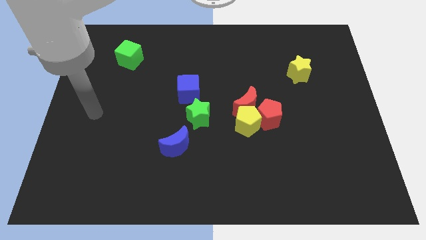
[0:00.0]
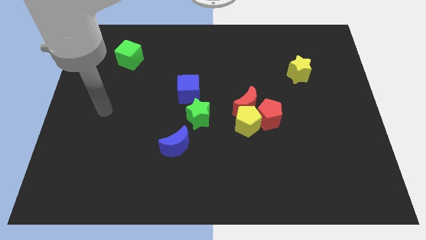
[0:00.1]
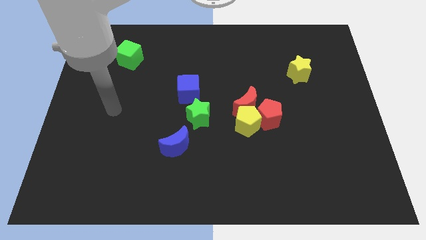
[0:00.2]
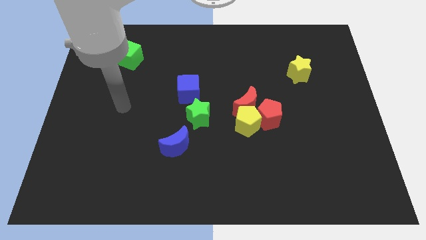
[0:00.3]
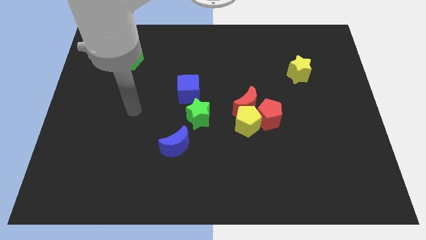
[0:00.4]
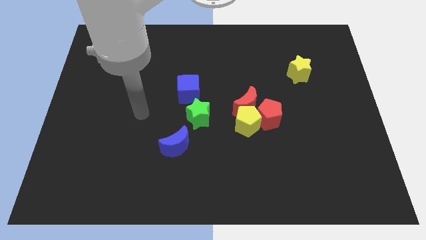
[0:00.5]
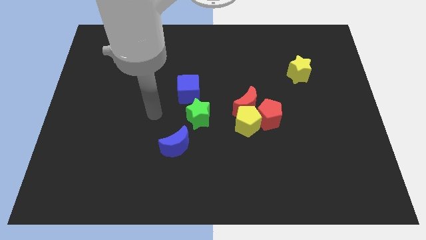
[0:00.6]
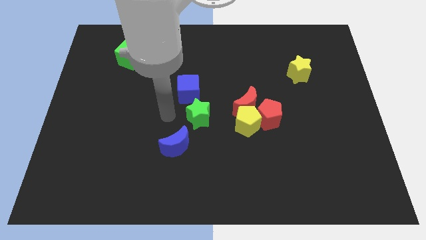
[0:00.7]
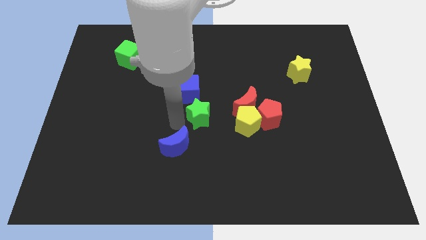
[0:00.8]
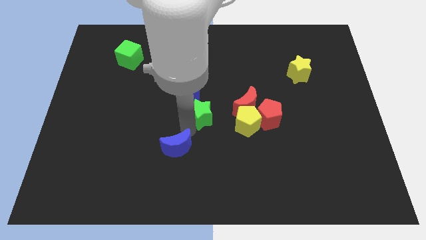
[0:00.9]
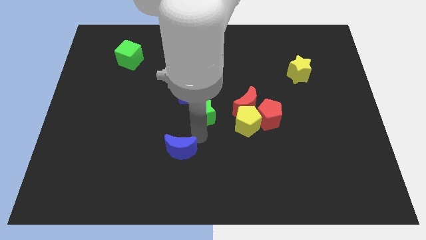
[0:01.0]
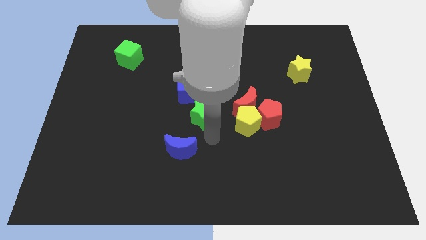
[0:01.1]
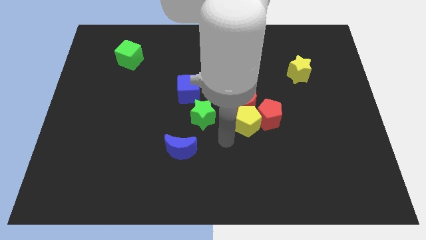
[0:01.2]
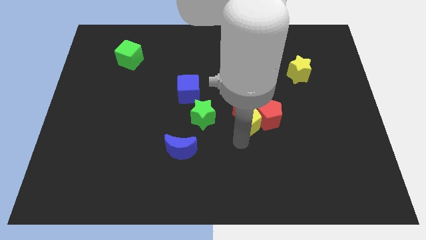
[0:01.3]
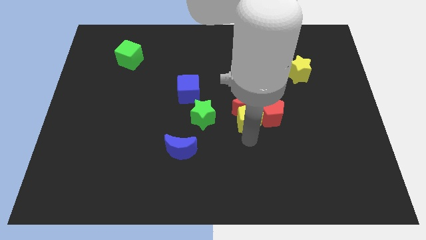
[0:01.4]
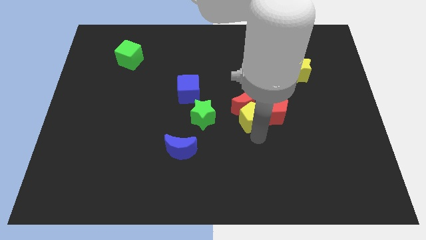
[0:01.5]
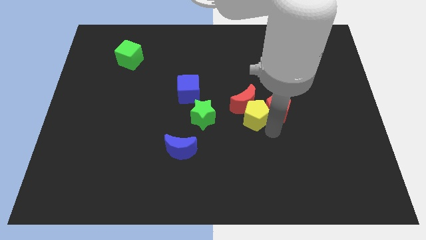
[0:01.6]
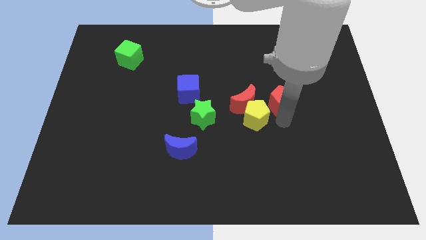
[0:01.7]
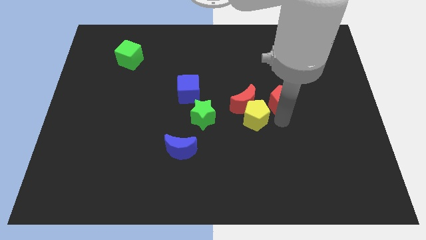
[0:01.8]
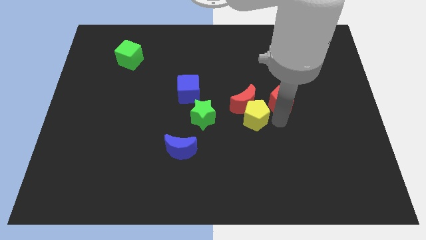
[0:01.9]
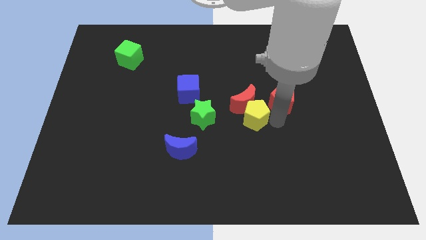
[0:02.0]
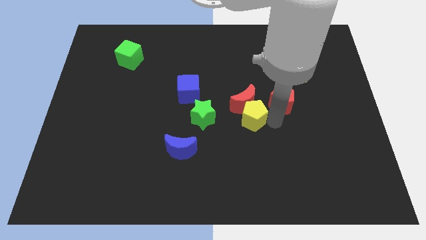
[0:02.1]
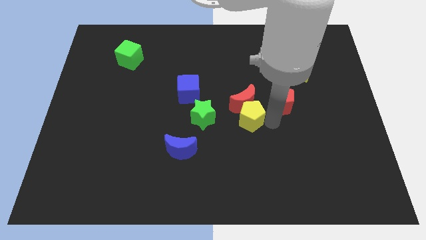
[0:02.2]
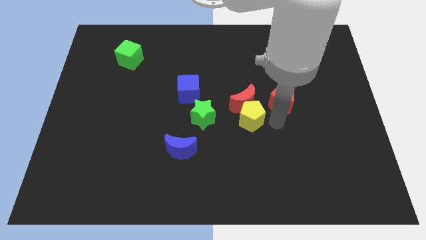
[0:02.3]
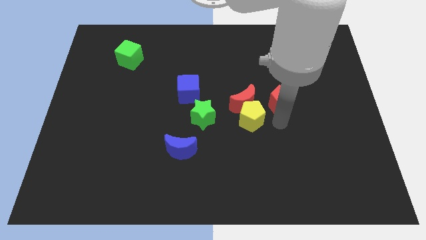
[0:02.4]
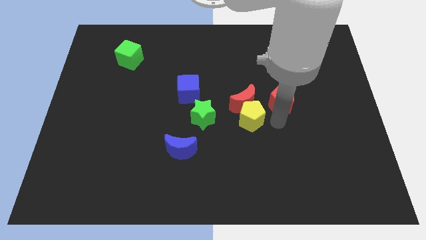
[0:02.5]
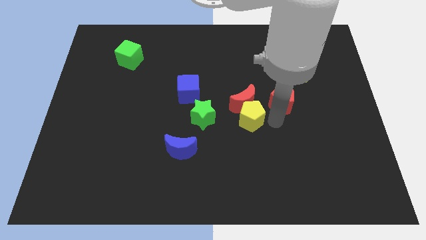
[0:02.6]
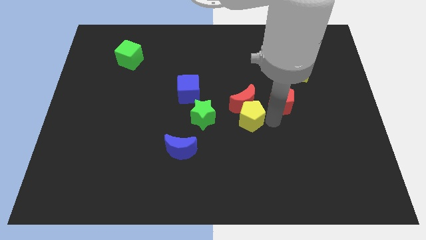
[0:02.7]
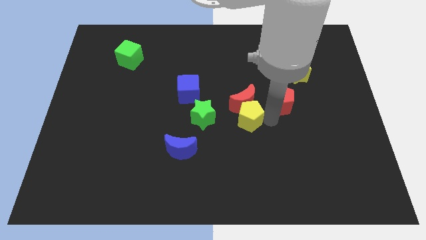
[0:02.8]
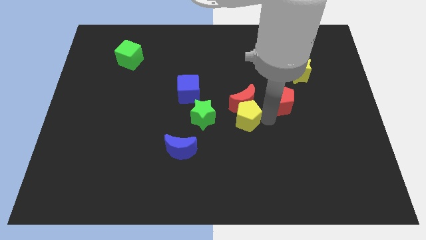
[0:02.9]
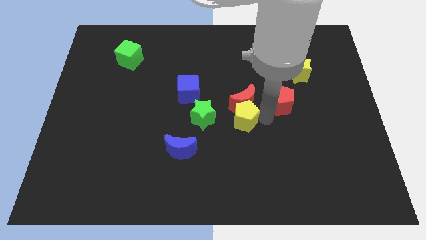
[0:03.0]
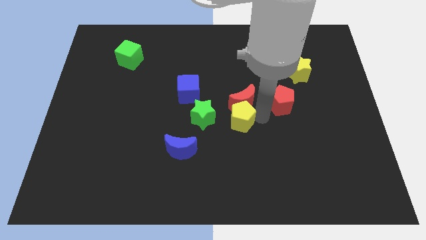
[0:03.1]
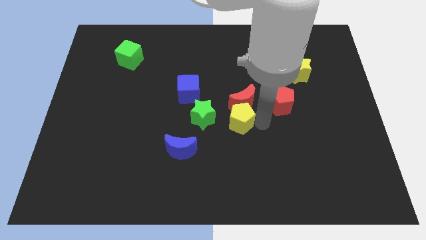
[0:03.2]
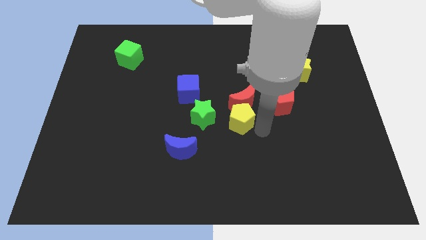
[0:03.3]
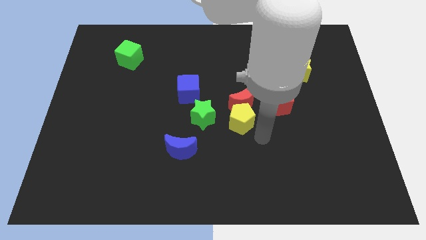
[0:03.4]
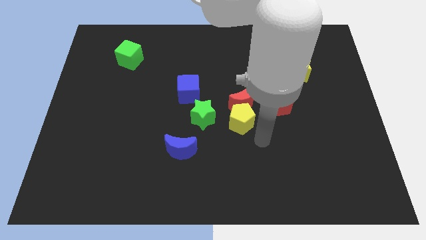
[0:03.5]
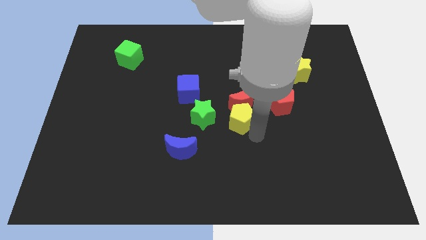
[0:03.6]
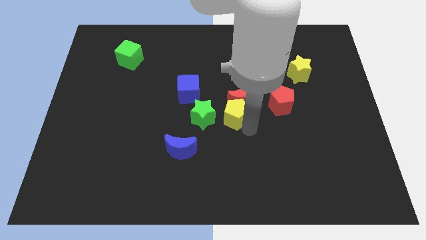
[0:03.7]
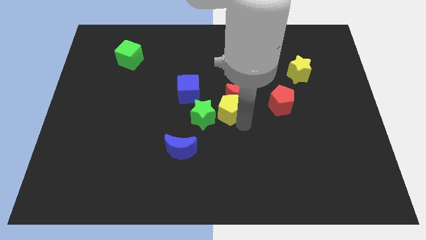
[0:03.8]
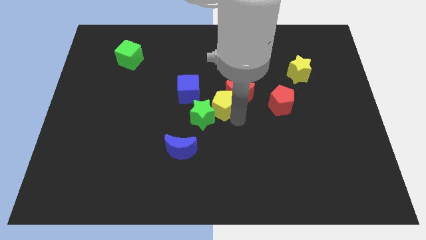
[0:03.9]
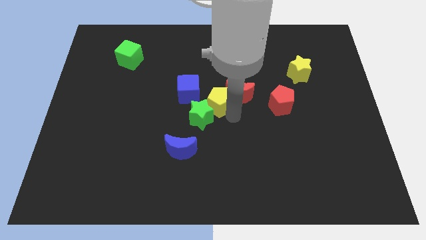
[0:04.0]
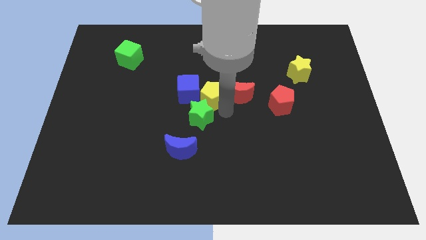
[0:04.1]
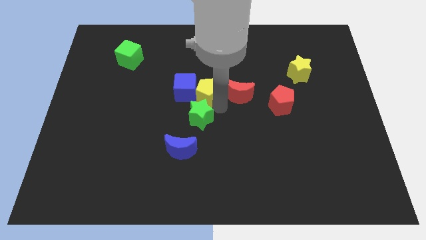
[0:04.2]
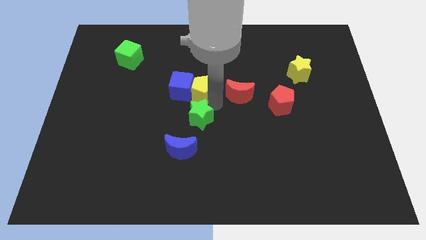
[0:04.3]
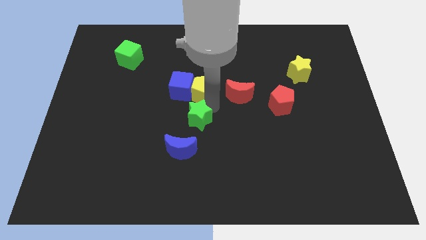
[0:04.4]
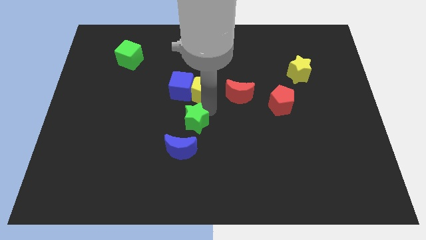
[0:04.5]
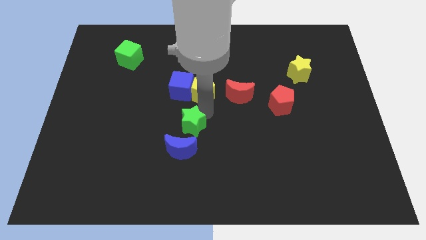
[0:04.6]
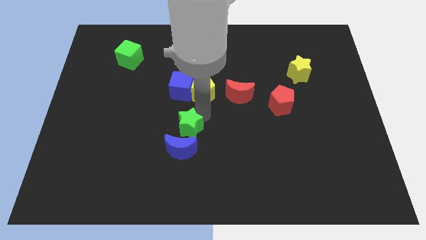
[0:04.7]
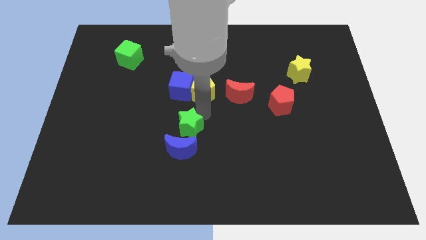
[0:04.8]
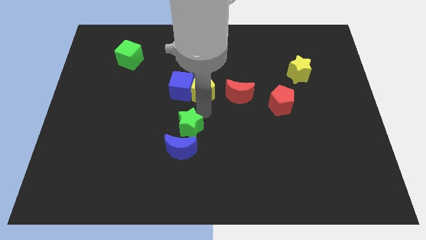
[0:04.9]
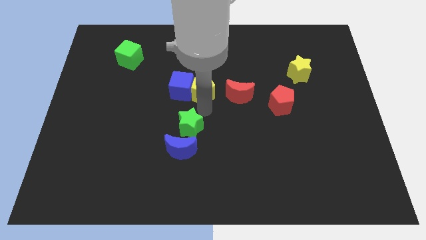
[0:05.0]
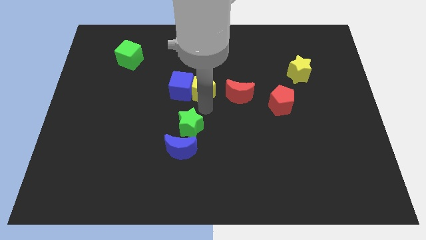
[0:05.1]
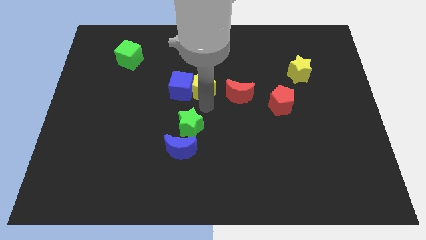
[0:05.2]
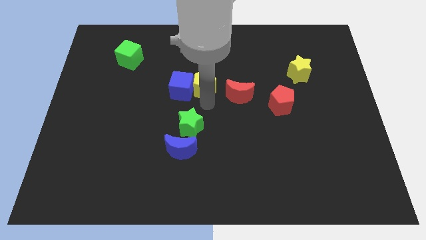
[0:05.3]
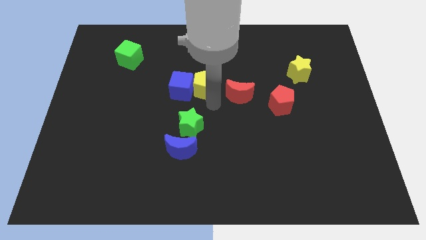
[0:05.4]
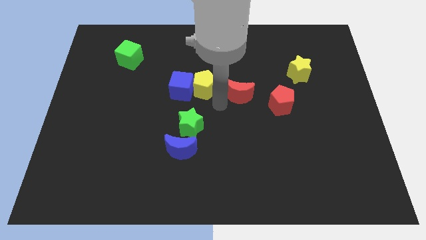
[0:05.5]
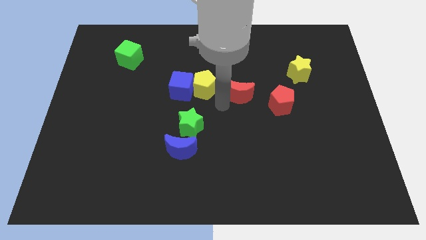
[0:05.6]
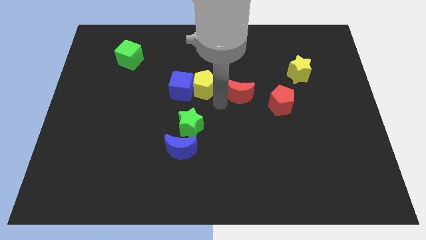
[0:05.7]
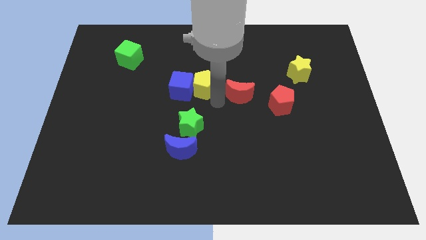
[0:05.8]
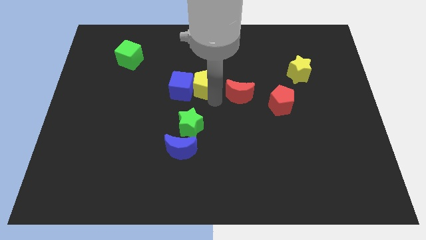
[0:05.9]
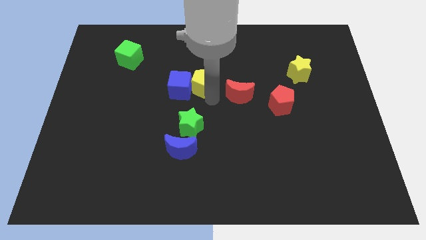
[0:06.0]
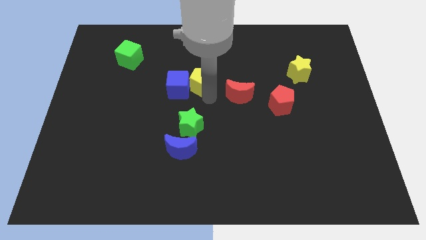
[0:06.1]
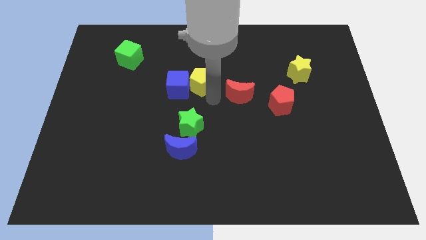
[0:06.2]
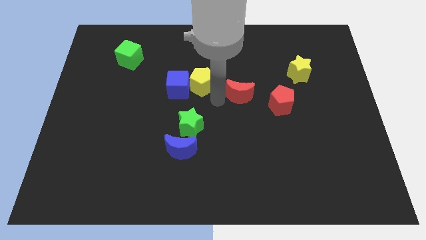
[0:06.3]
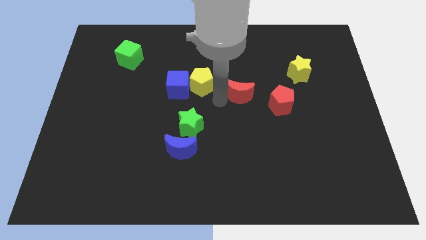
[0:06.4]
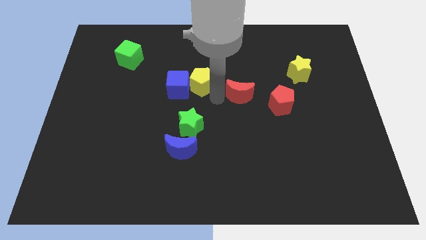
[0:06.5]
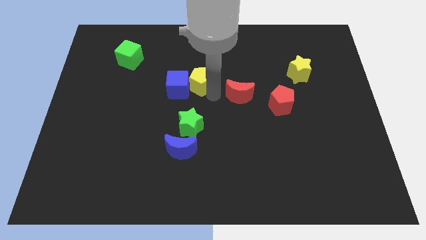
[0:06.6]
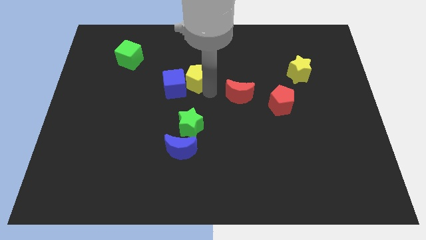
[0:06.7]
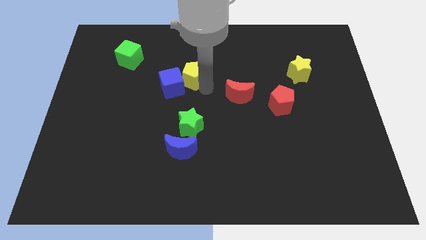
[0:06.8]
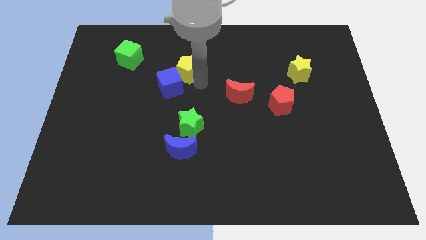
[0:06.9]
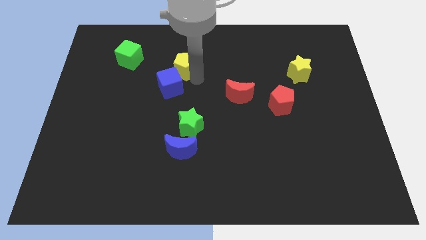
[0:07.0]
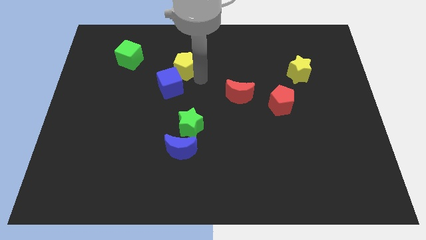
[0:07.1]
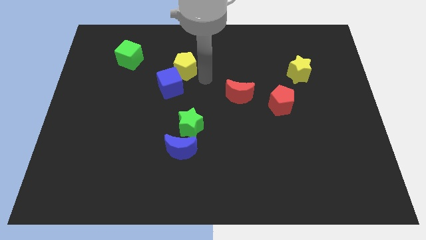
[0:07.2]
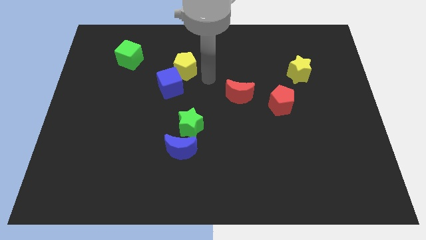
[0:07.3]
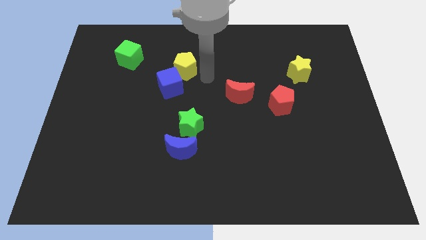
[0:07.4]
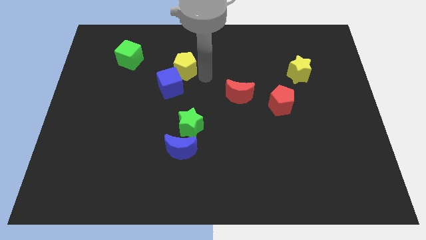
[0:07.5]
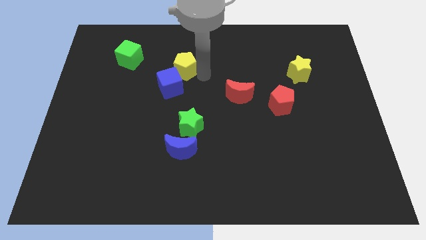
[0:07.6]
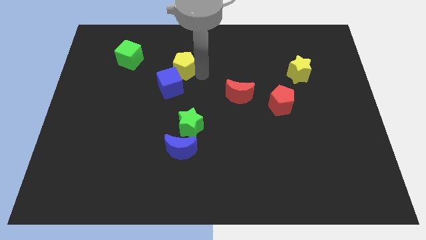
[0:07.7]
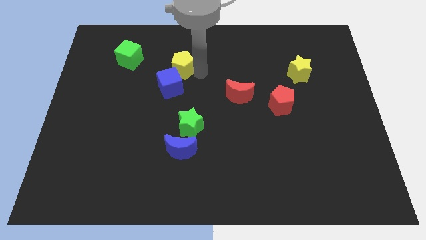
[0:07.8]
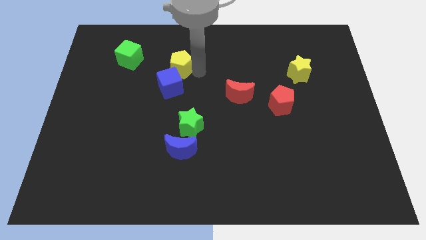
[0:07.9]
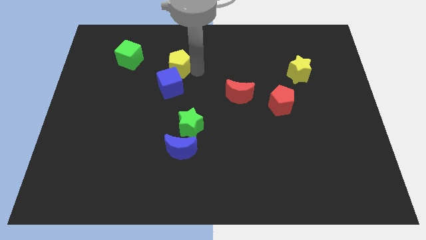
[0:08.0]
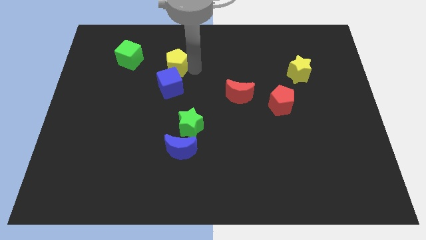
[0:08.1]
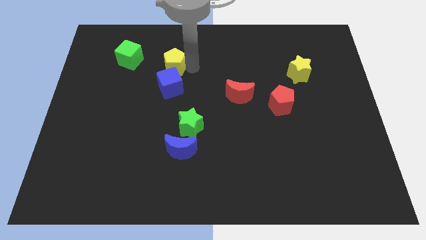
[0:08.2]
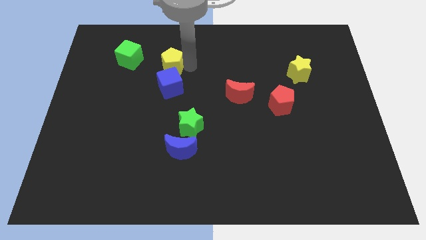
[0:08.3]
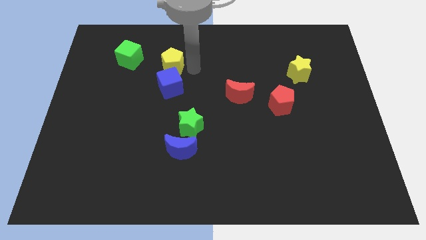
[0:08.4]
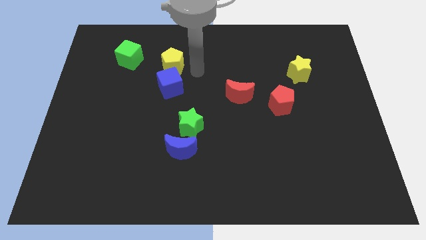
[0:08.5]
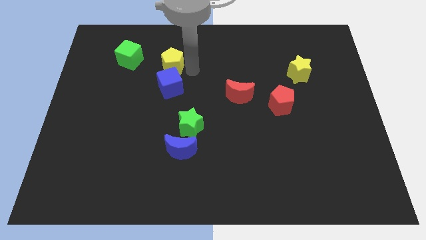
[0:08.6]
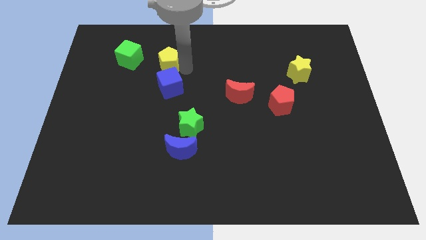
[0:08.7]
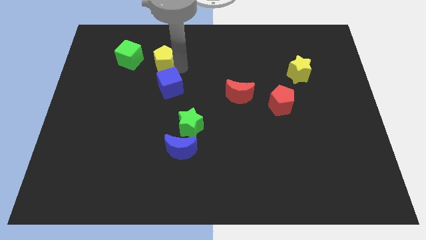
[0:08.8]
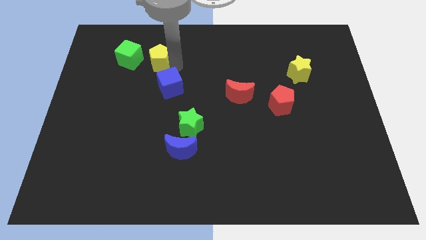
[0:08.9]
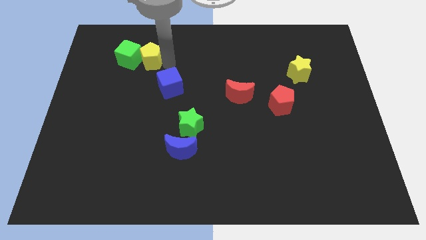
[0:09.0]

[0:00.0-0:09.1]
put the yellow pentagon next to the green cube
